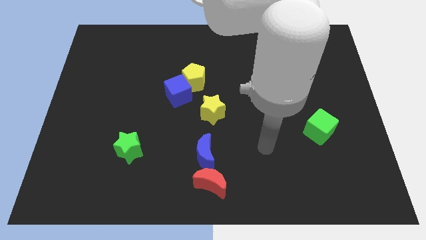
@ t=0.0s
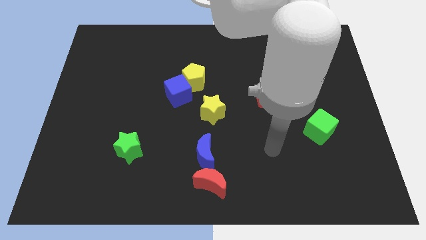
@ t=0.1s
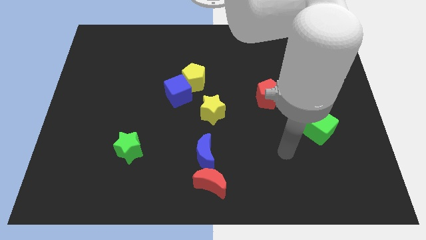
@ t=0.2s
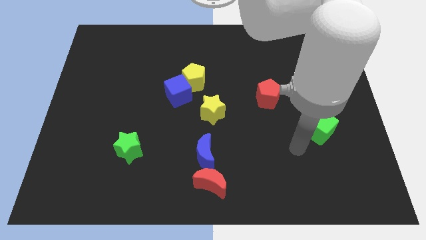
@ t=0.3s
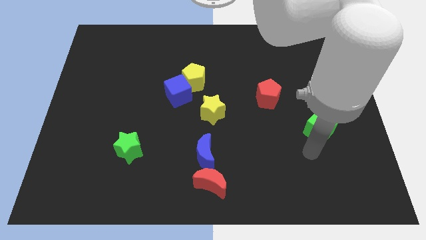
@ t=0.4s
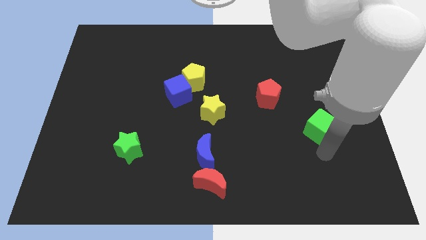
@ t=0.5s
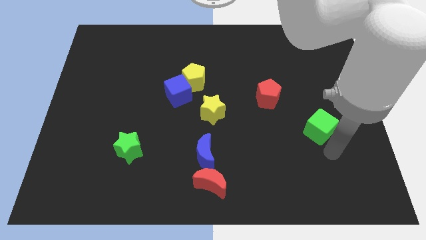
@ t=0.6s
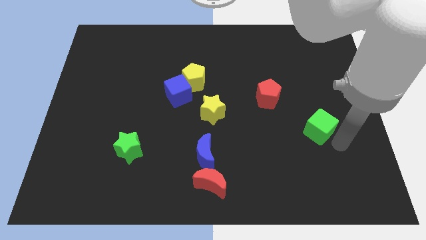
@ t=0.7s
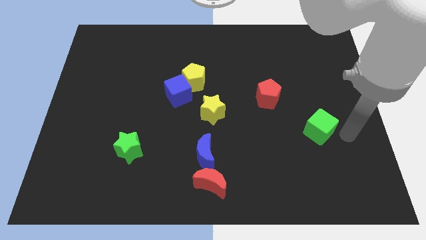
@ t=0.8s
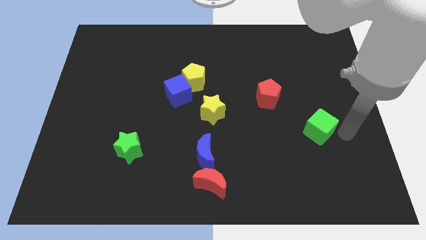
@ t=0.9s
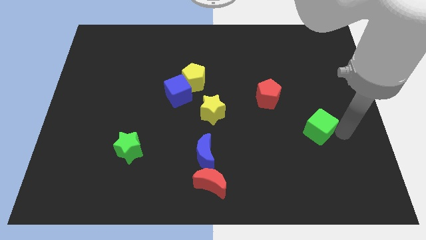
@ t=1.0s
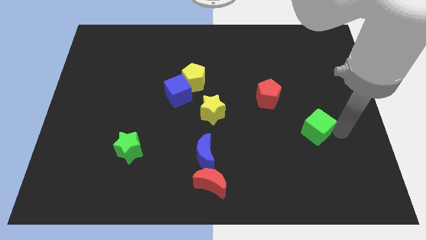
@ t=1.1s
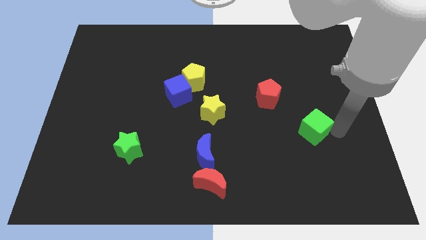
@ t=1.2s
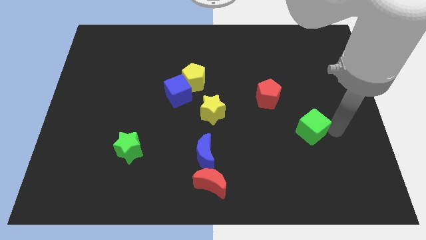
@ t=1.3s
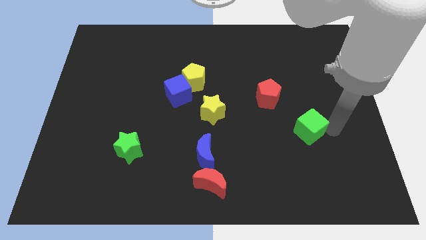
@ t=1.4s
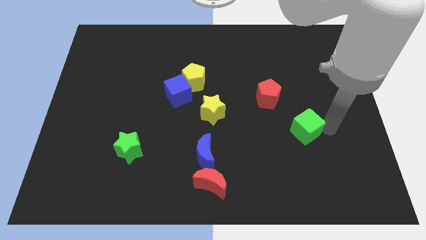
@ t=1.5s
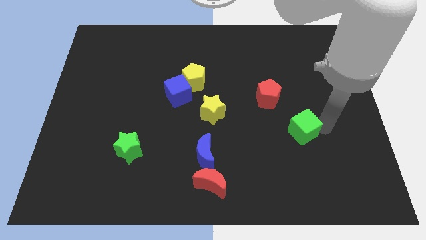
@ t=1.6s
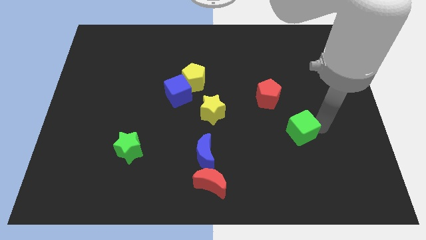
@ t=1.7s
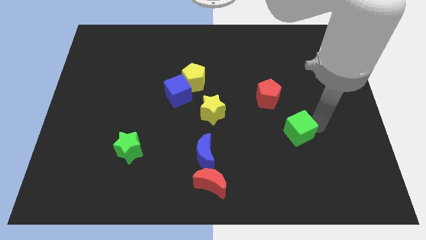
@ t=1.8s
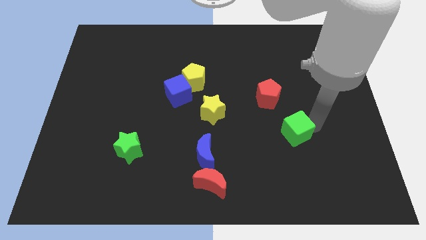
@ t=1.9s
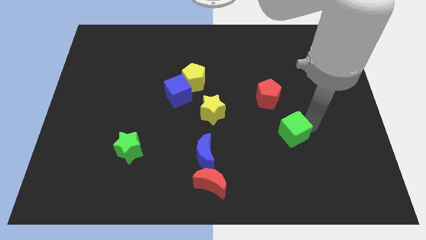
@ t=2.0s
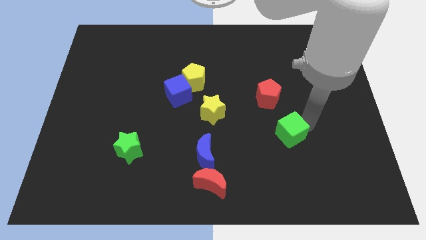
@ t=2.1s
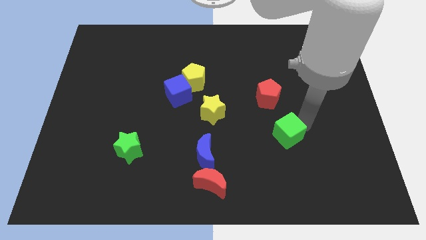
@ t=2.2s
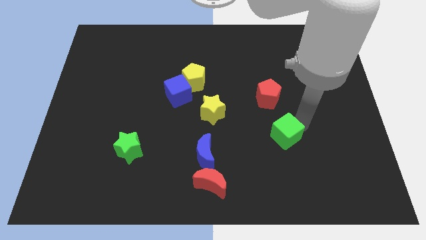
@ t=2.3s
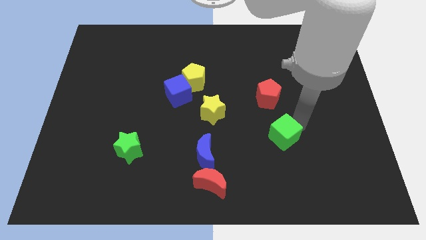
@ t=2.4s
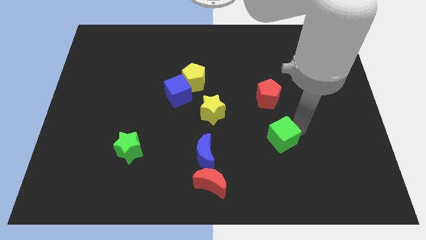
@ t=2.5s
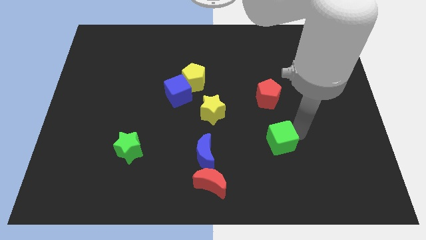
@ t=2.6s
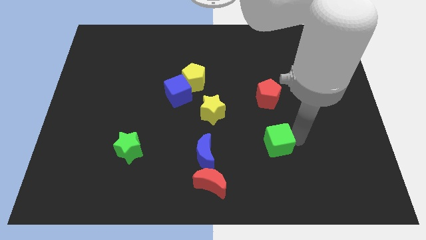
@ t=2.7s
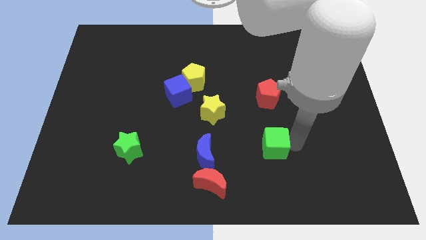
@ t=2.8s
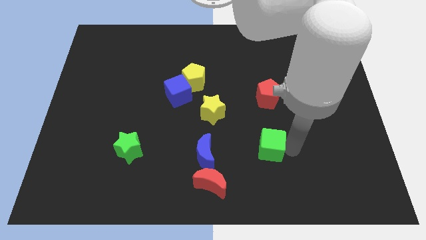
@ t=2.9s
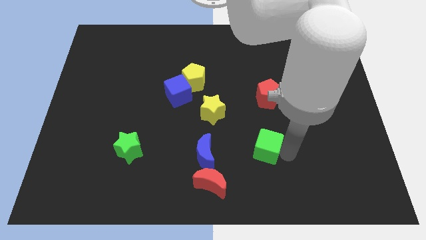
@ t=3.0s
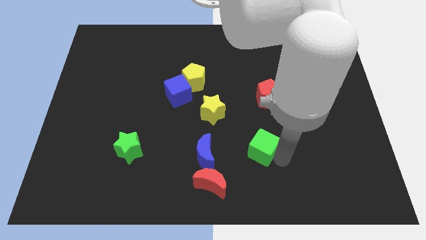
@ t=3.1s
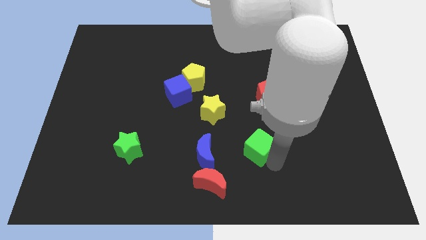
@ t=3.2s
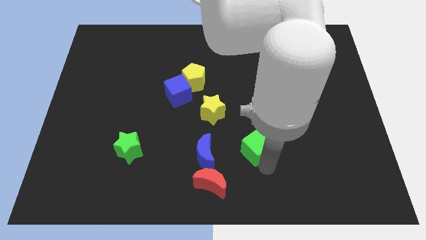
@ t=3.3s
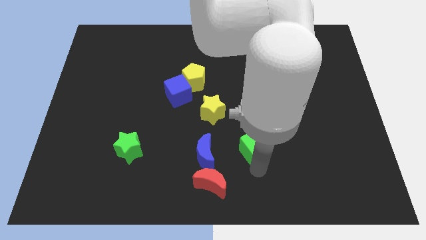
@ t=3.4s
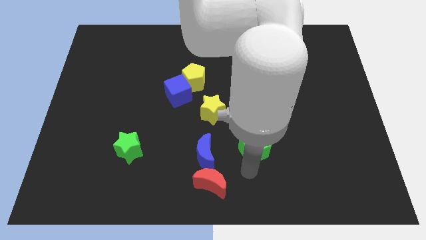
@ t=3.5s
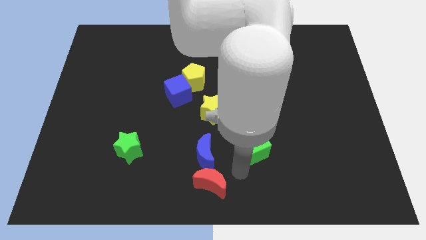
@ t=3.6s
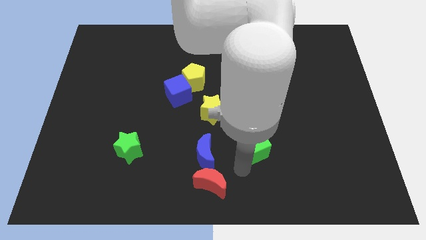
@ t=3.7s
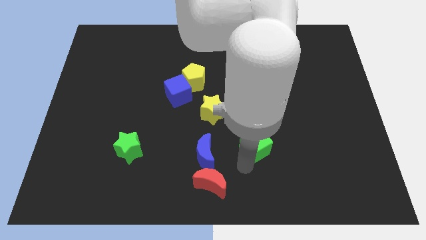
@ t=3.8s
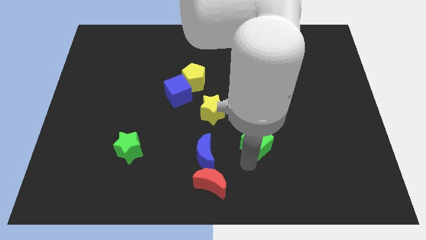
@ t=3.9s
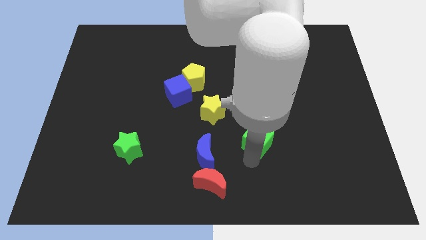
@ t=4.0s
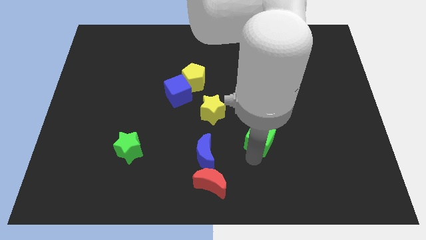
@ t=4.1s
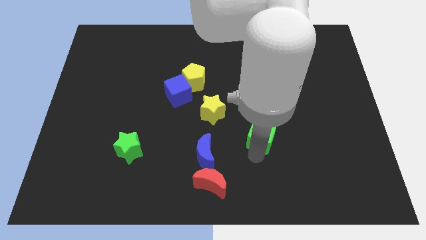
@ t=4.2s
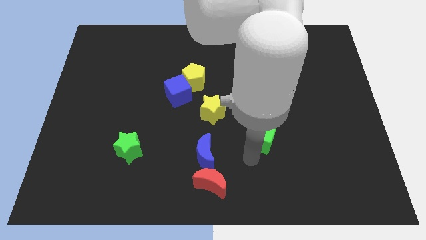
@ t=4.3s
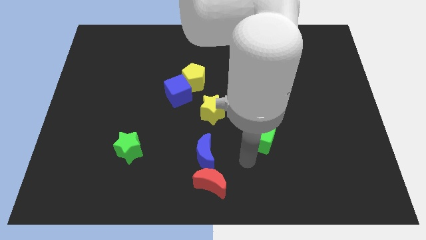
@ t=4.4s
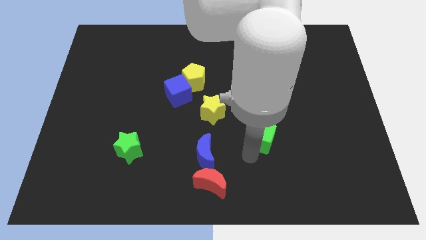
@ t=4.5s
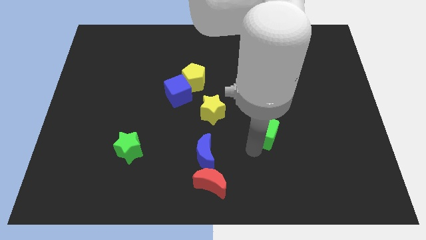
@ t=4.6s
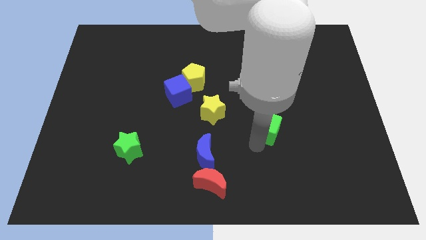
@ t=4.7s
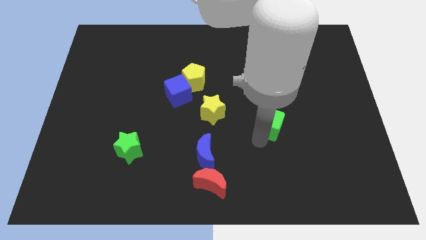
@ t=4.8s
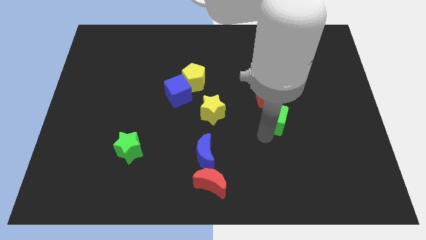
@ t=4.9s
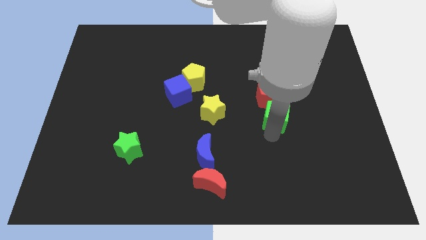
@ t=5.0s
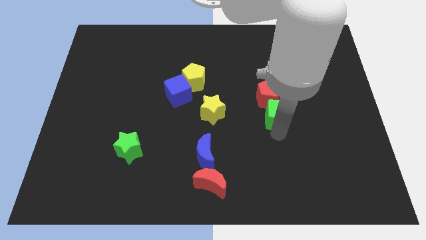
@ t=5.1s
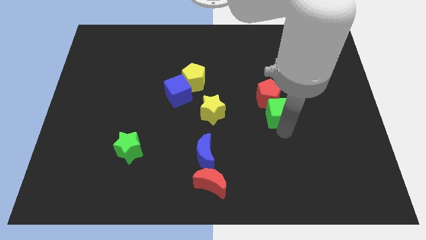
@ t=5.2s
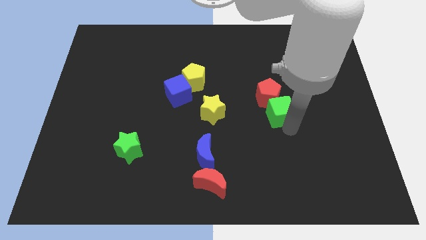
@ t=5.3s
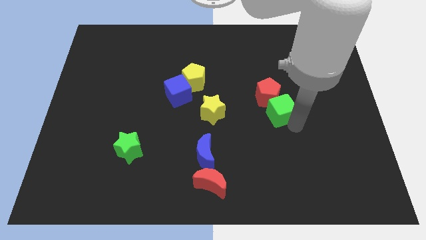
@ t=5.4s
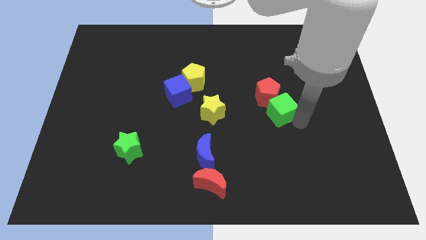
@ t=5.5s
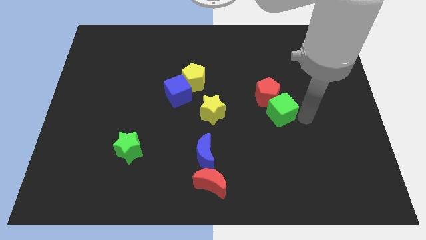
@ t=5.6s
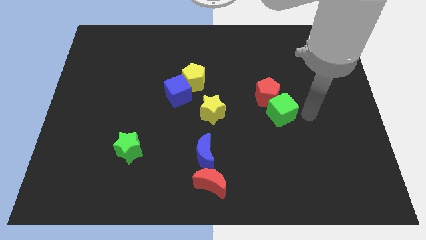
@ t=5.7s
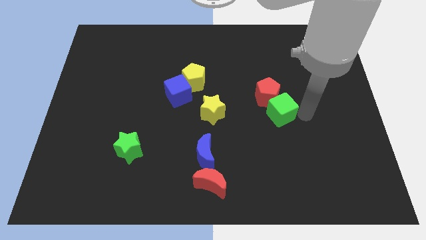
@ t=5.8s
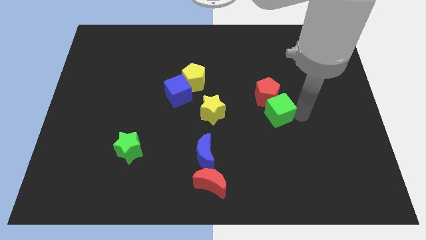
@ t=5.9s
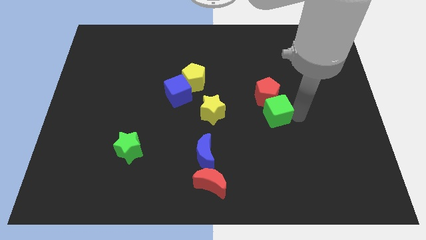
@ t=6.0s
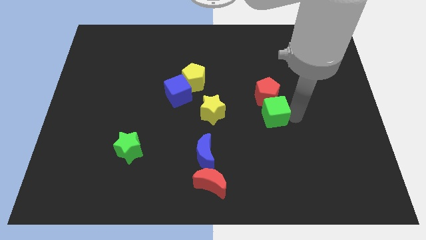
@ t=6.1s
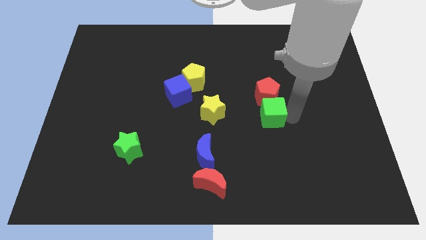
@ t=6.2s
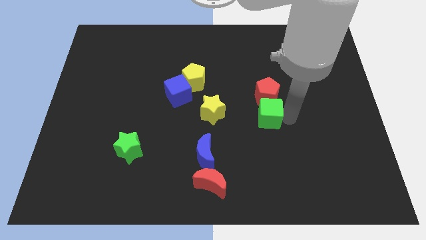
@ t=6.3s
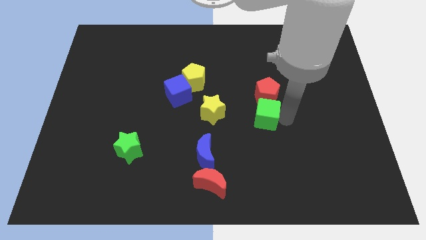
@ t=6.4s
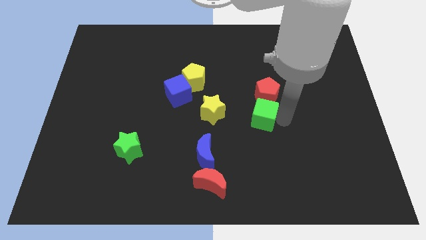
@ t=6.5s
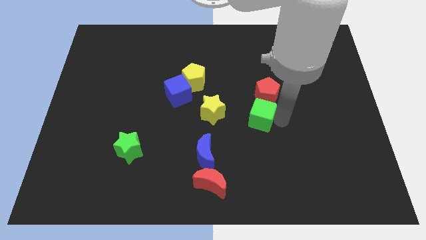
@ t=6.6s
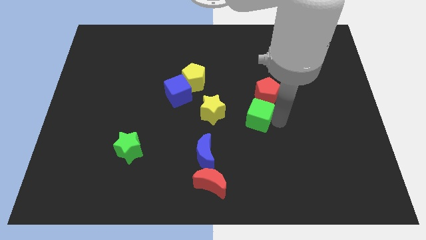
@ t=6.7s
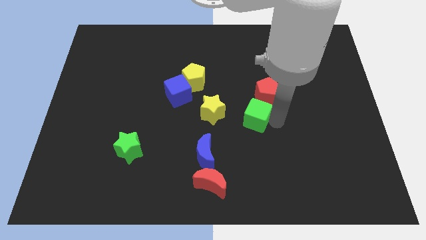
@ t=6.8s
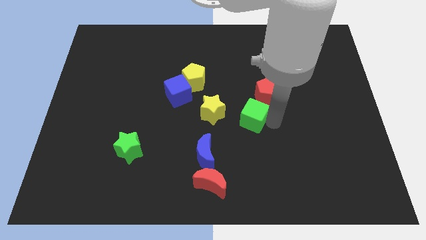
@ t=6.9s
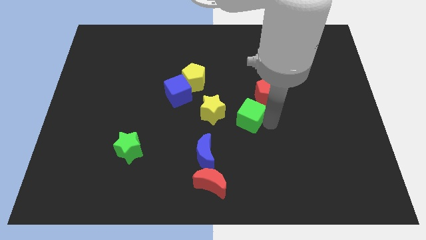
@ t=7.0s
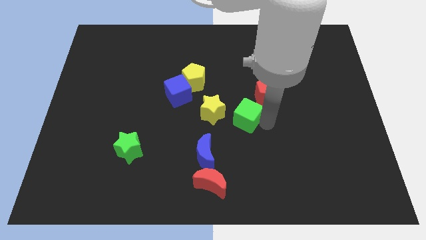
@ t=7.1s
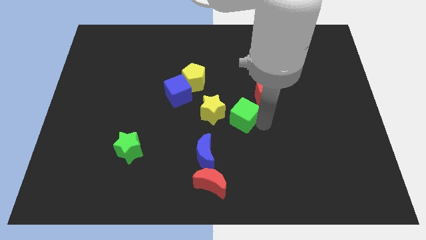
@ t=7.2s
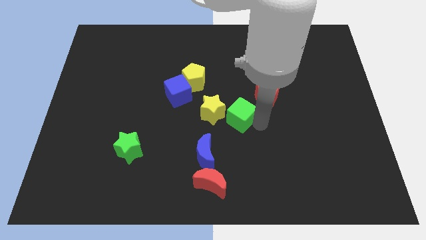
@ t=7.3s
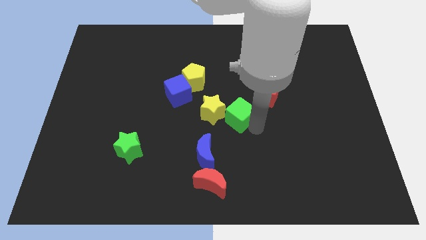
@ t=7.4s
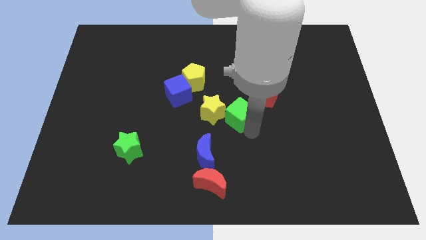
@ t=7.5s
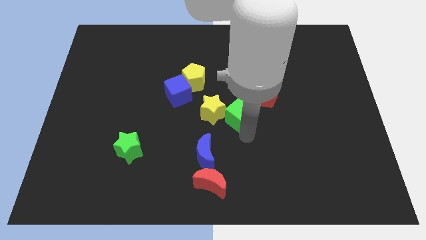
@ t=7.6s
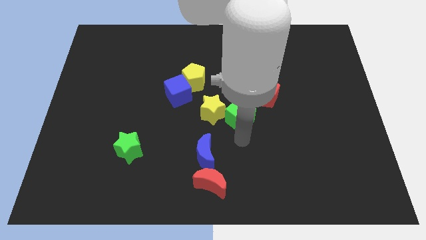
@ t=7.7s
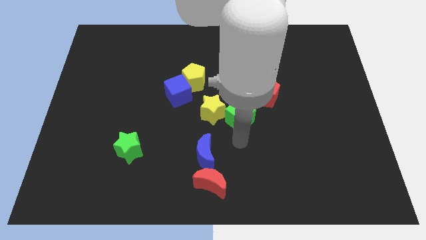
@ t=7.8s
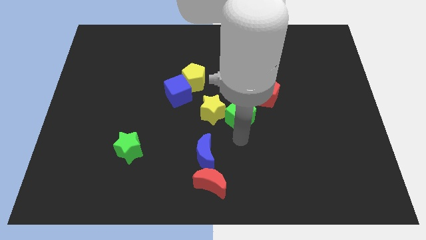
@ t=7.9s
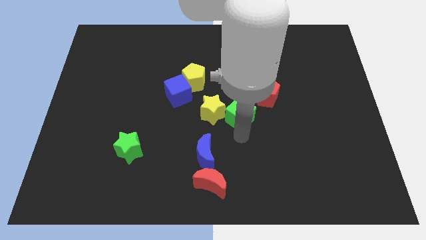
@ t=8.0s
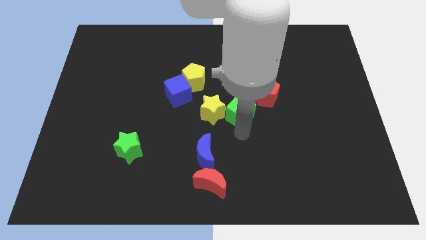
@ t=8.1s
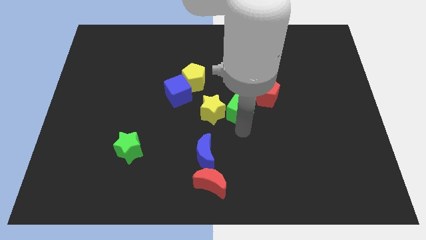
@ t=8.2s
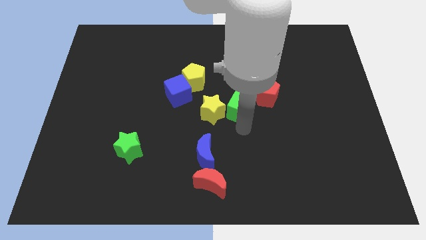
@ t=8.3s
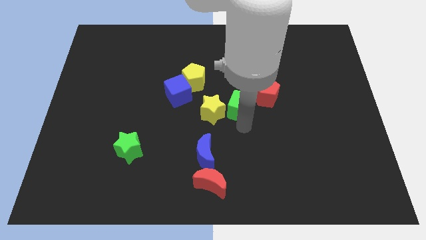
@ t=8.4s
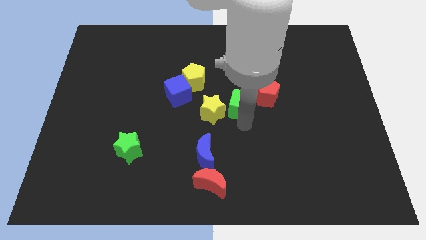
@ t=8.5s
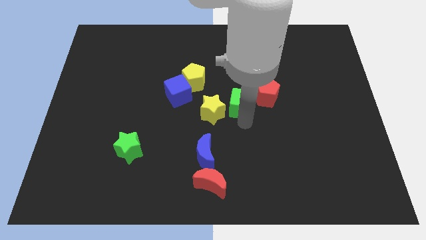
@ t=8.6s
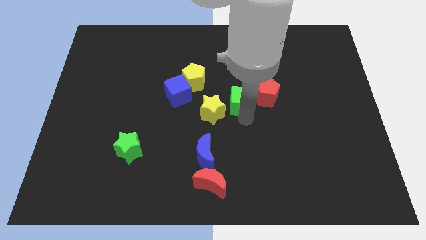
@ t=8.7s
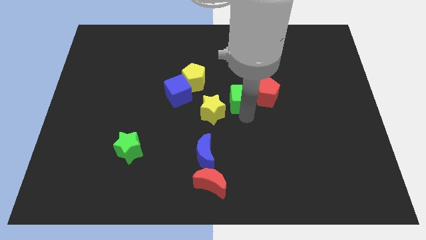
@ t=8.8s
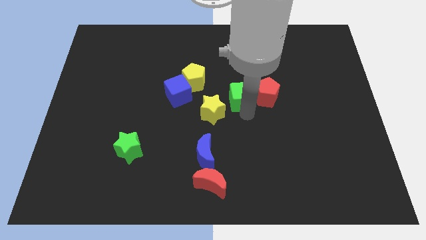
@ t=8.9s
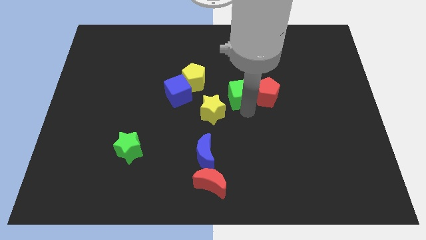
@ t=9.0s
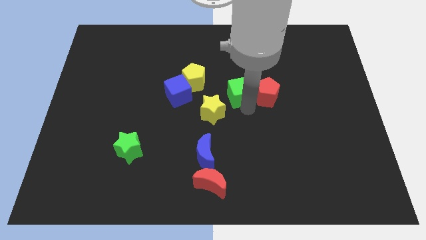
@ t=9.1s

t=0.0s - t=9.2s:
push the green cube to the right side of the yellow pentagon
